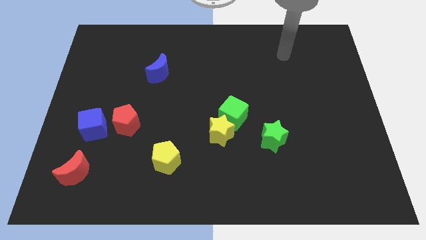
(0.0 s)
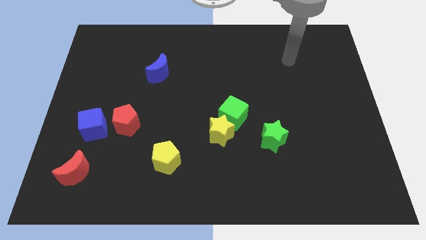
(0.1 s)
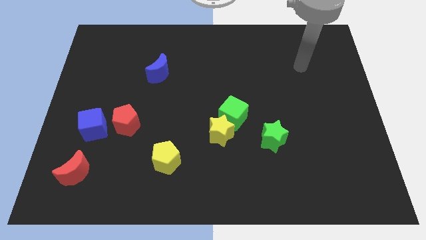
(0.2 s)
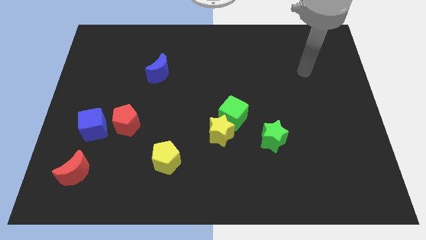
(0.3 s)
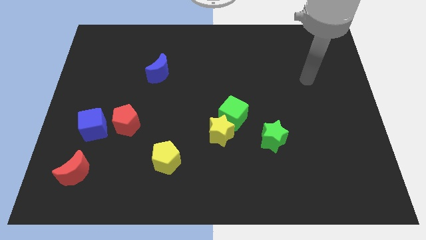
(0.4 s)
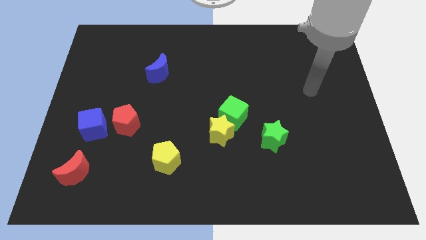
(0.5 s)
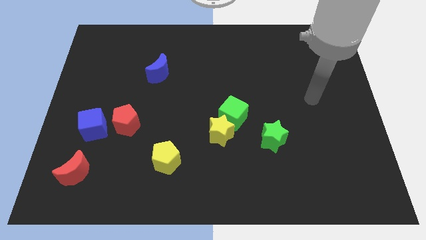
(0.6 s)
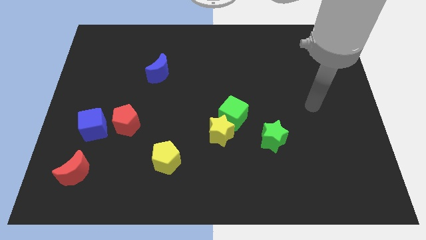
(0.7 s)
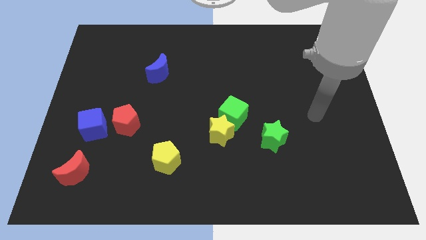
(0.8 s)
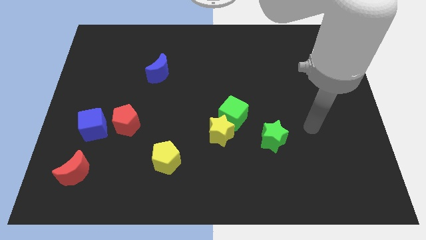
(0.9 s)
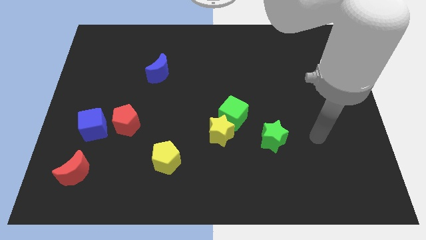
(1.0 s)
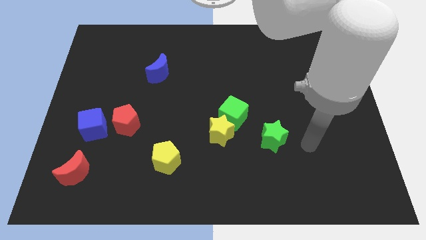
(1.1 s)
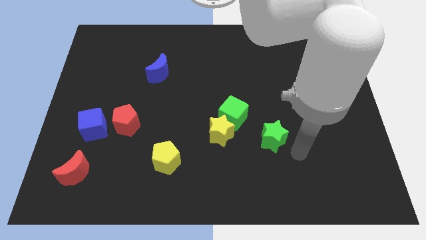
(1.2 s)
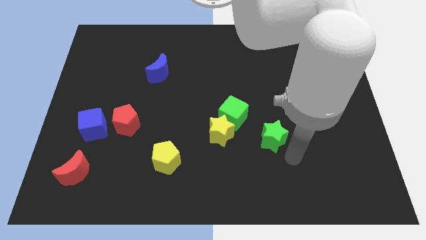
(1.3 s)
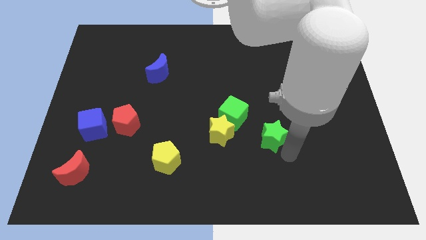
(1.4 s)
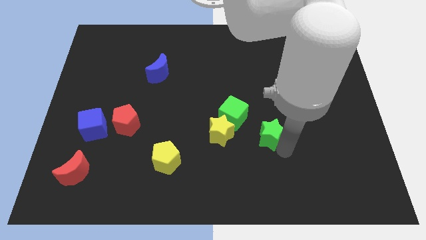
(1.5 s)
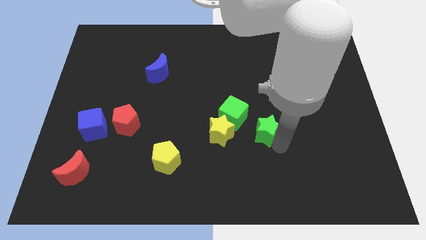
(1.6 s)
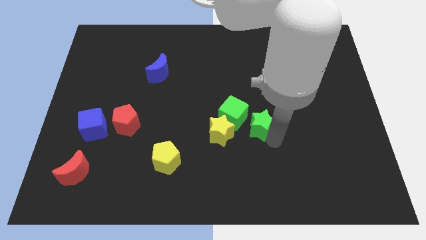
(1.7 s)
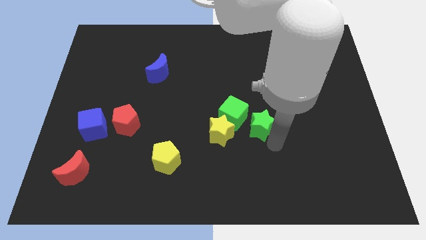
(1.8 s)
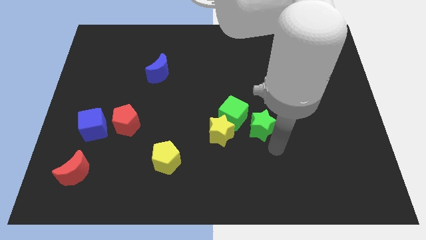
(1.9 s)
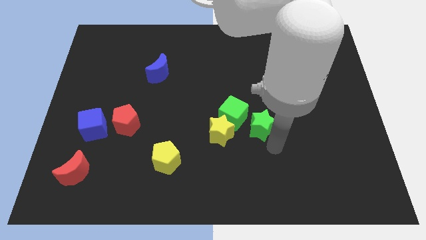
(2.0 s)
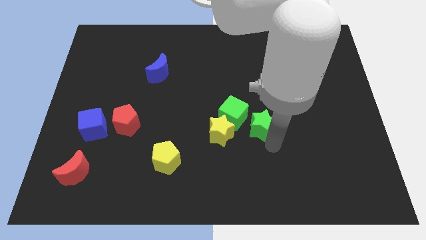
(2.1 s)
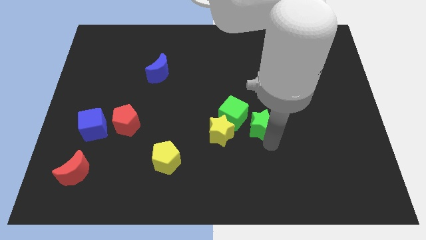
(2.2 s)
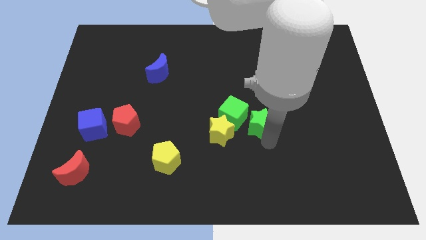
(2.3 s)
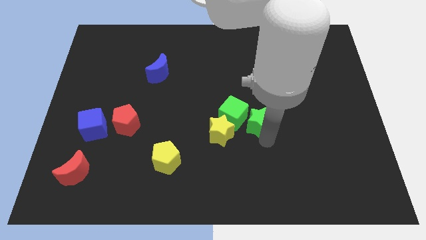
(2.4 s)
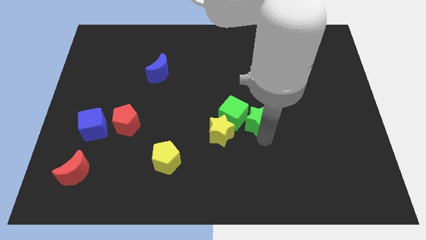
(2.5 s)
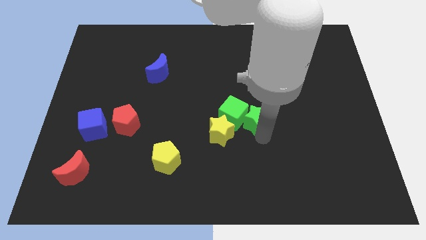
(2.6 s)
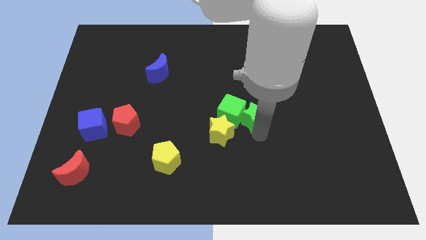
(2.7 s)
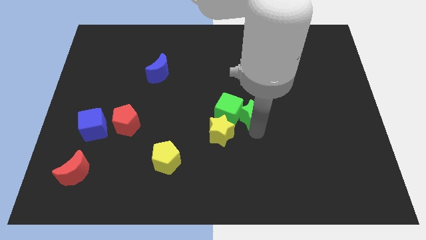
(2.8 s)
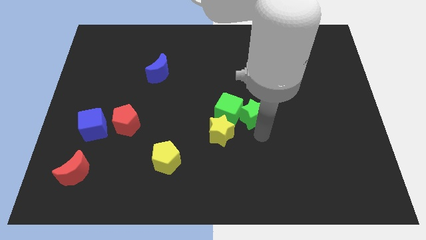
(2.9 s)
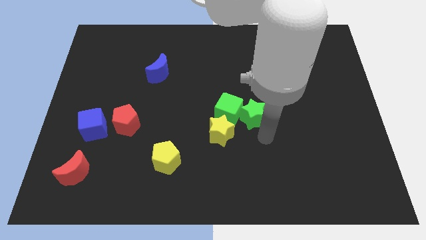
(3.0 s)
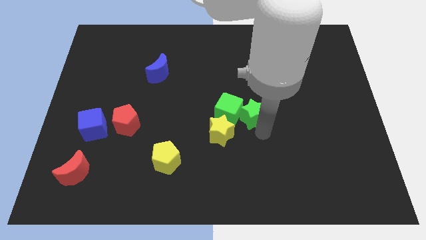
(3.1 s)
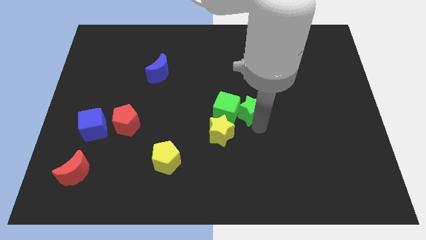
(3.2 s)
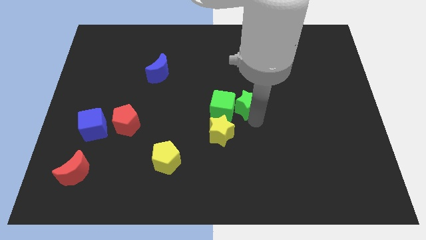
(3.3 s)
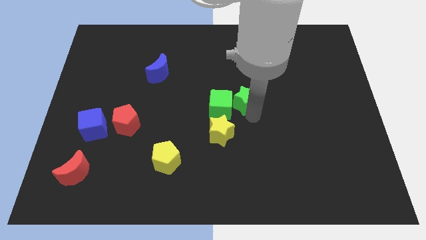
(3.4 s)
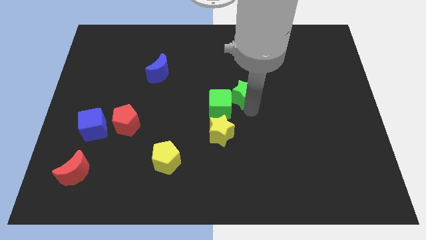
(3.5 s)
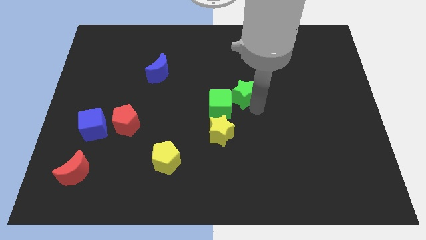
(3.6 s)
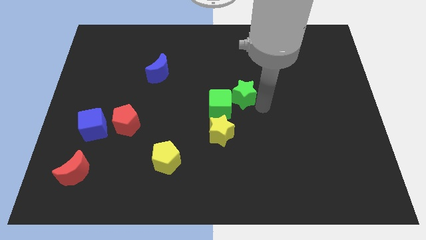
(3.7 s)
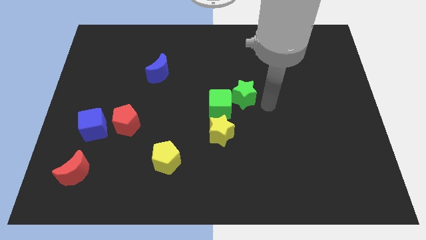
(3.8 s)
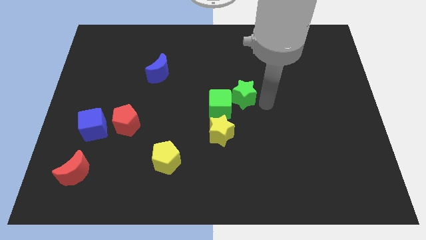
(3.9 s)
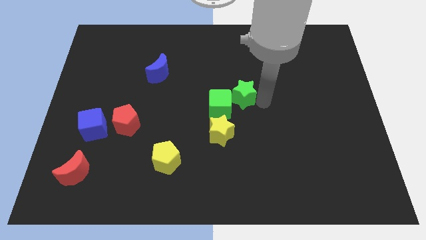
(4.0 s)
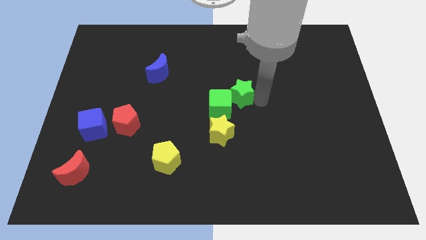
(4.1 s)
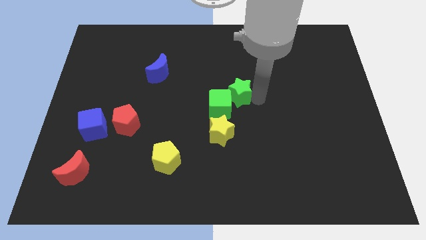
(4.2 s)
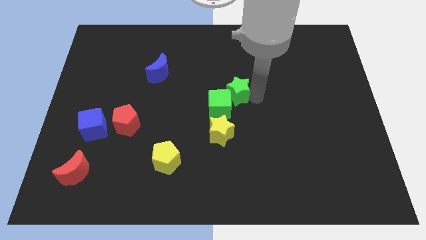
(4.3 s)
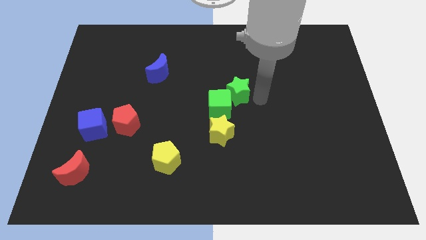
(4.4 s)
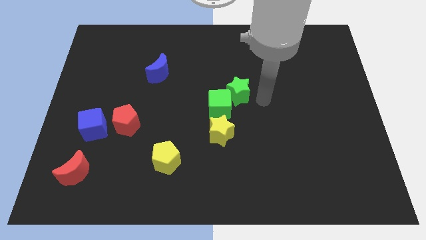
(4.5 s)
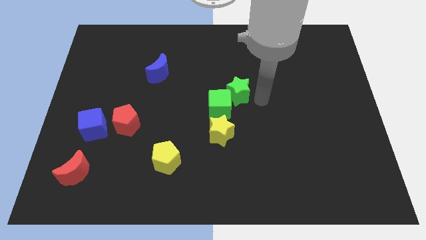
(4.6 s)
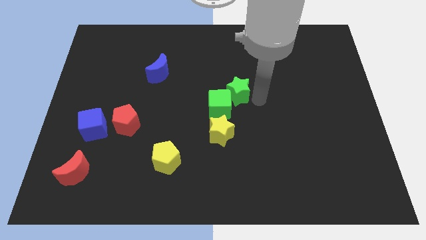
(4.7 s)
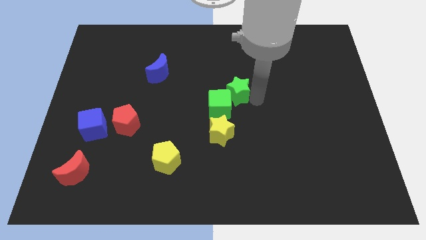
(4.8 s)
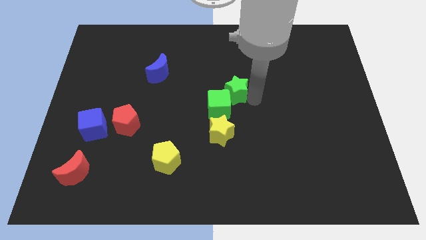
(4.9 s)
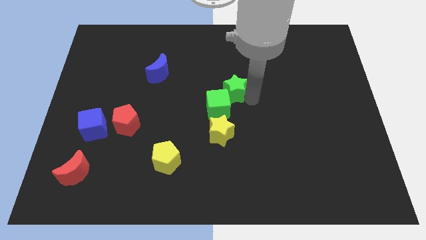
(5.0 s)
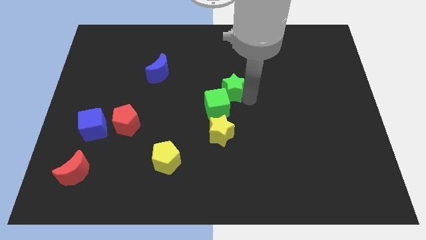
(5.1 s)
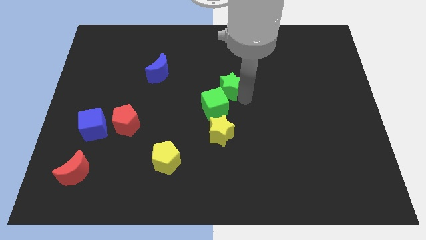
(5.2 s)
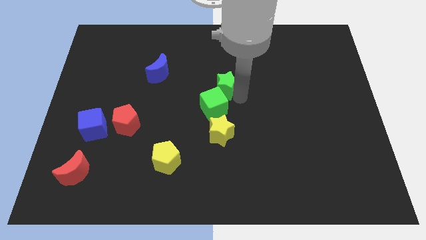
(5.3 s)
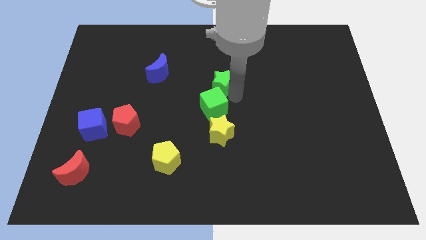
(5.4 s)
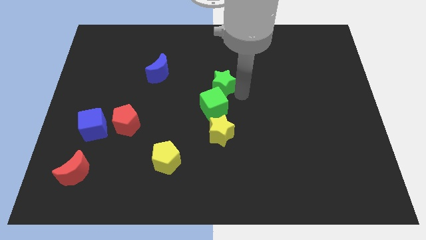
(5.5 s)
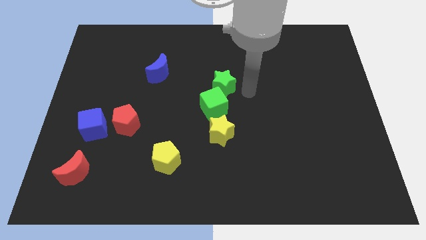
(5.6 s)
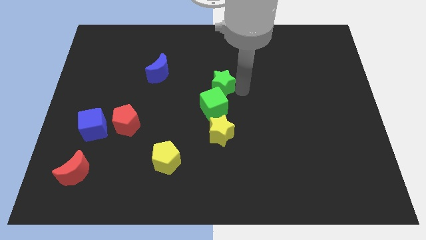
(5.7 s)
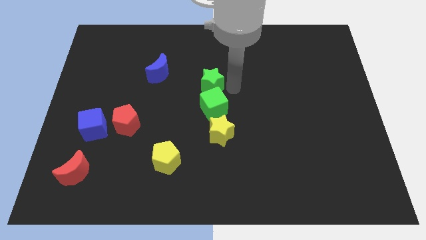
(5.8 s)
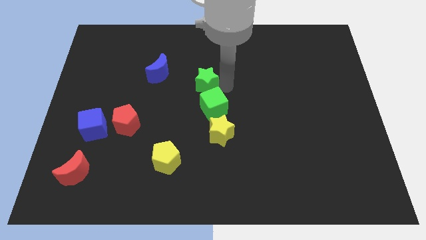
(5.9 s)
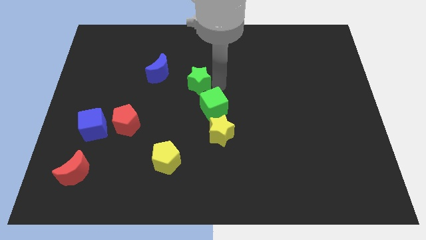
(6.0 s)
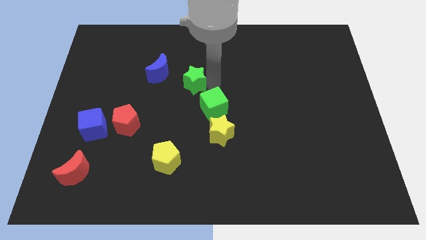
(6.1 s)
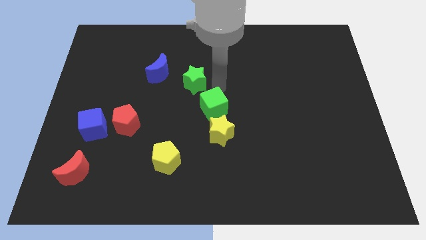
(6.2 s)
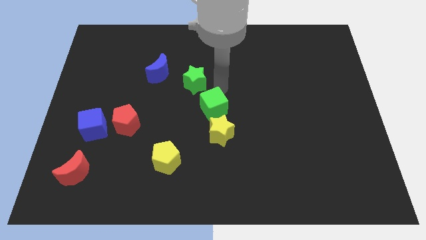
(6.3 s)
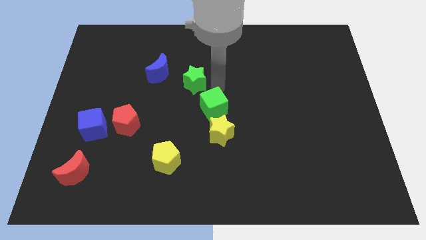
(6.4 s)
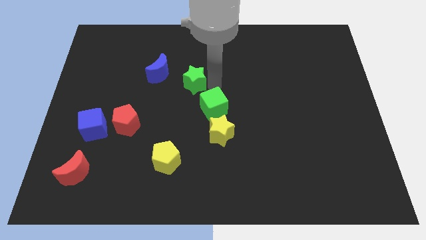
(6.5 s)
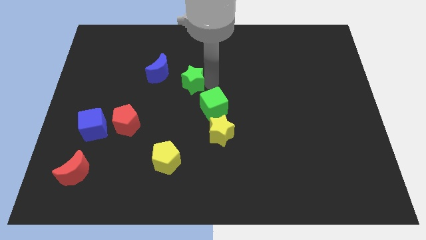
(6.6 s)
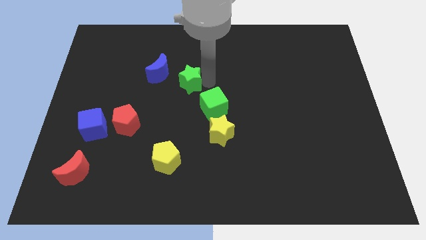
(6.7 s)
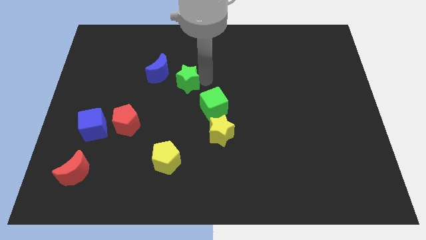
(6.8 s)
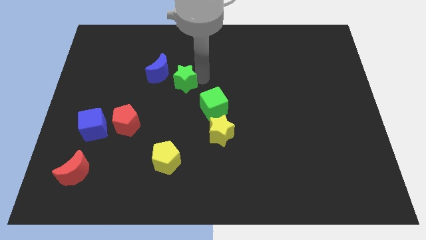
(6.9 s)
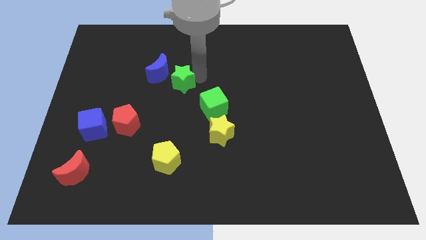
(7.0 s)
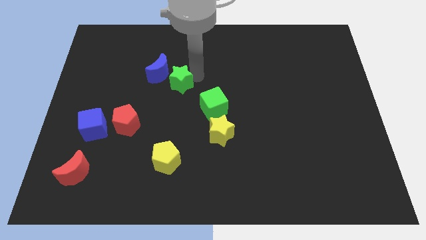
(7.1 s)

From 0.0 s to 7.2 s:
slide the green star towards the blue moon
